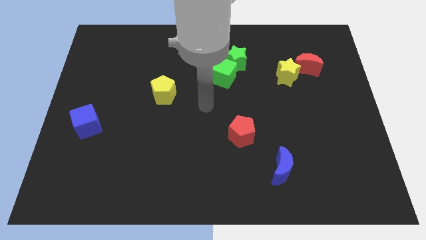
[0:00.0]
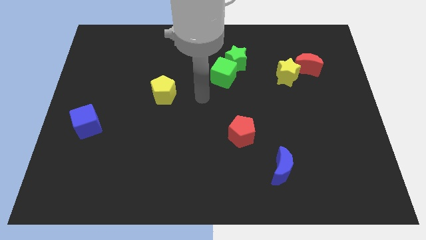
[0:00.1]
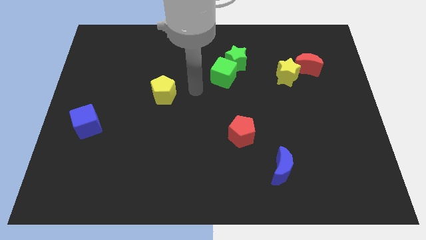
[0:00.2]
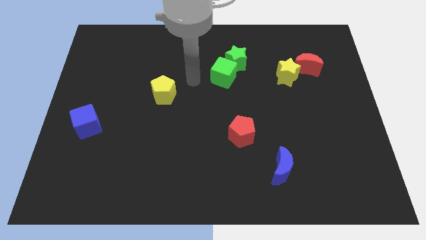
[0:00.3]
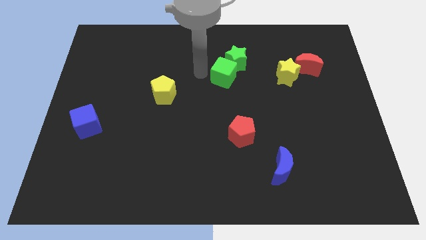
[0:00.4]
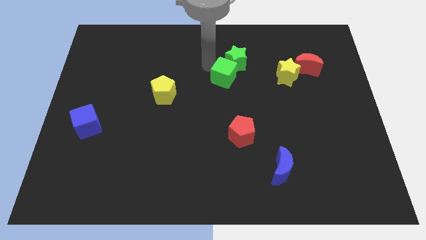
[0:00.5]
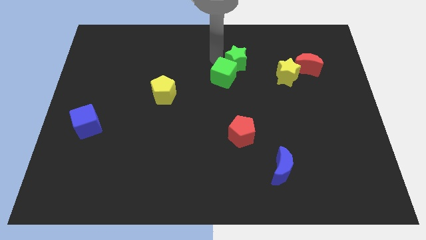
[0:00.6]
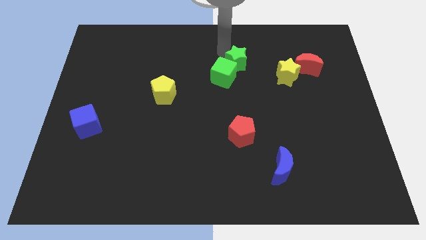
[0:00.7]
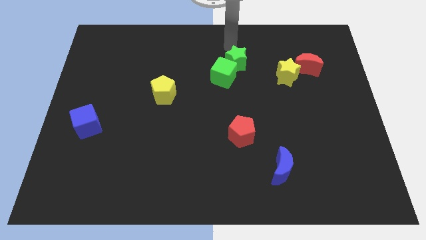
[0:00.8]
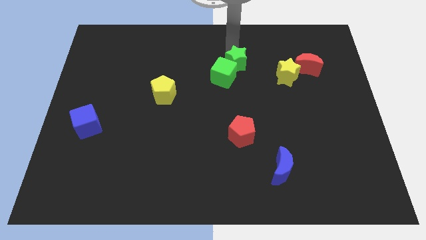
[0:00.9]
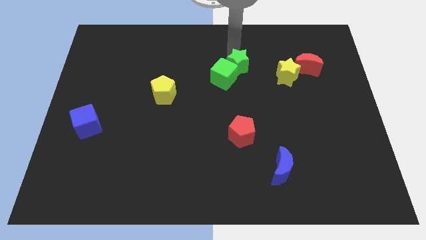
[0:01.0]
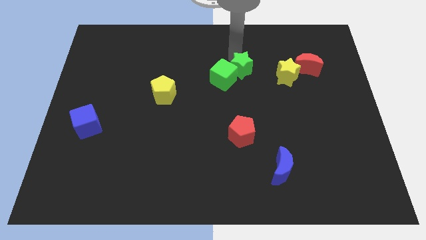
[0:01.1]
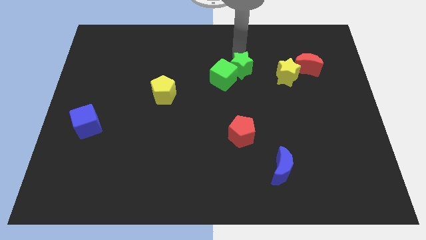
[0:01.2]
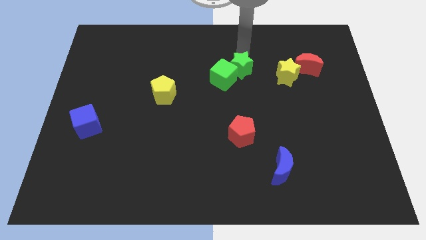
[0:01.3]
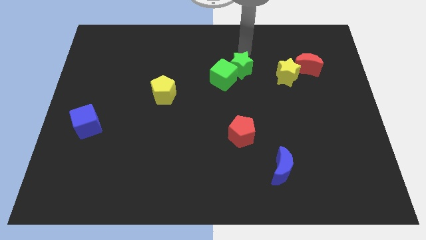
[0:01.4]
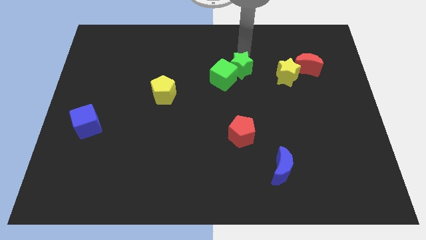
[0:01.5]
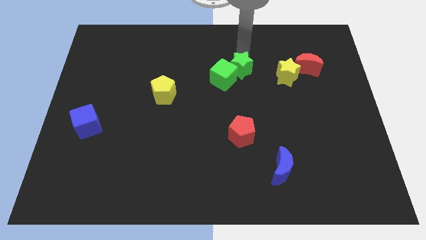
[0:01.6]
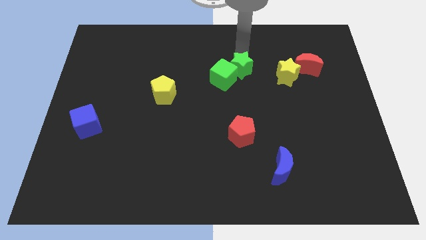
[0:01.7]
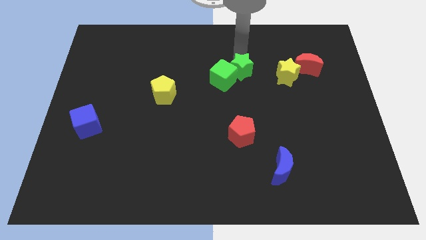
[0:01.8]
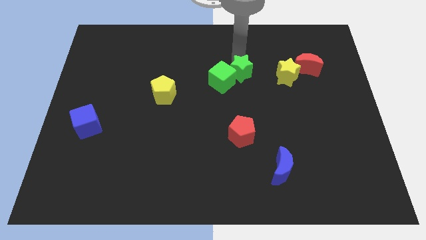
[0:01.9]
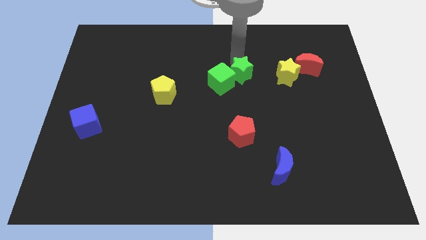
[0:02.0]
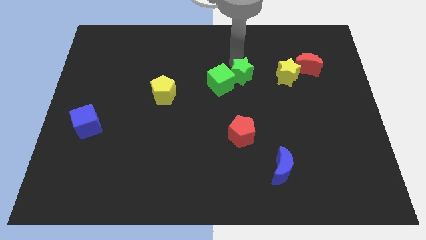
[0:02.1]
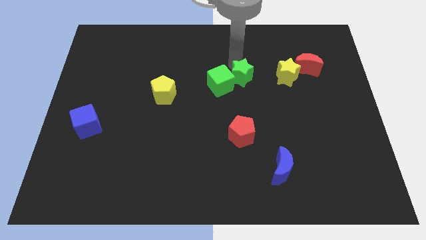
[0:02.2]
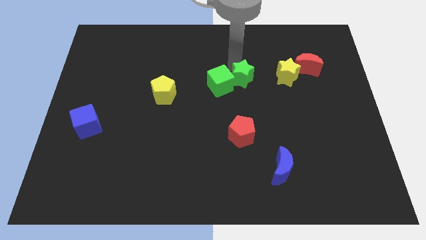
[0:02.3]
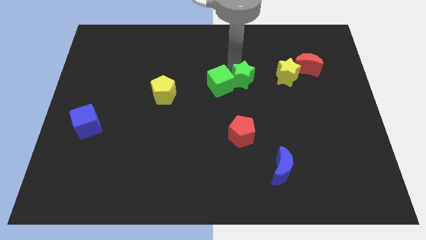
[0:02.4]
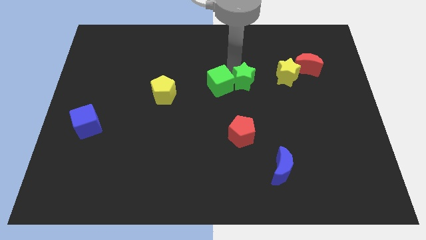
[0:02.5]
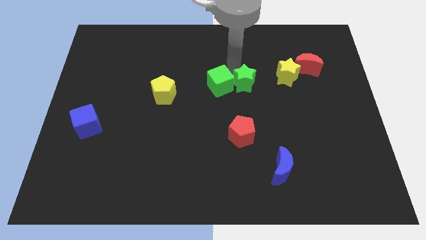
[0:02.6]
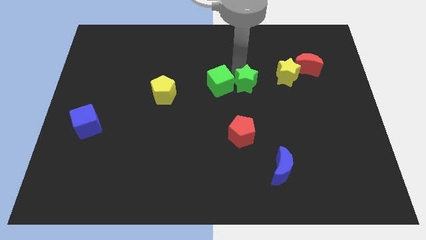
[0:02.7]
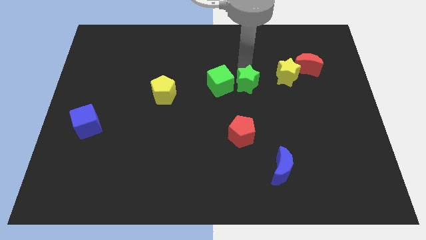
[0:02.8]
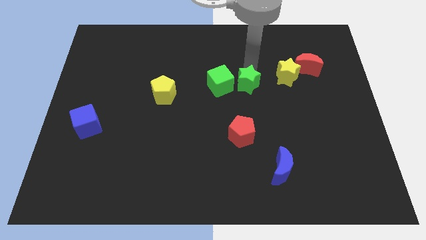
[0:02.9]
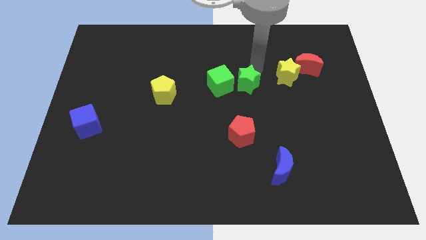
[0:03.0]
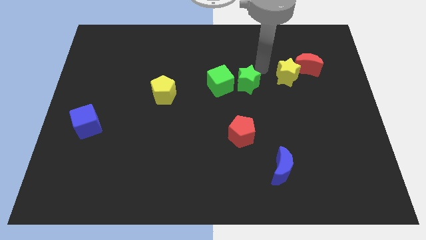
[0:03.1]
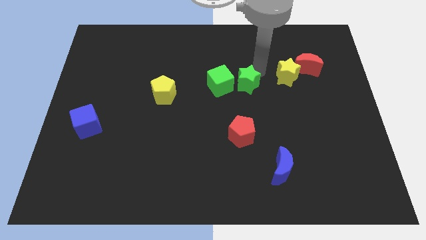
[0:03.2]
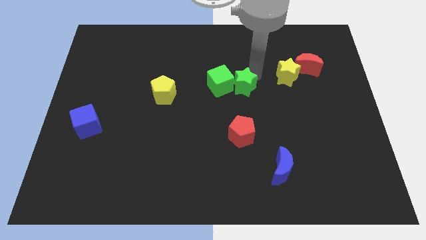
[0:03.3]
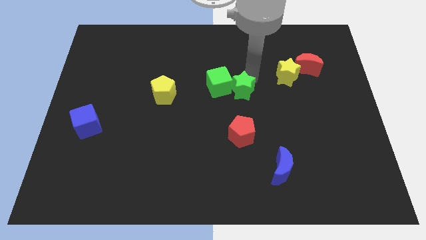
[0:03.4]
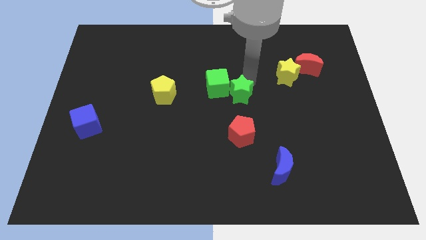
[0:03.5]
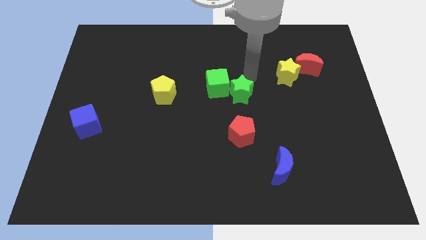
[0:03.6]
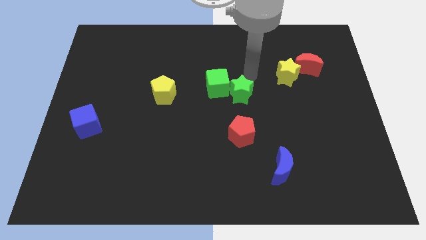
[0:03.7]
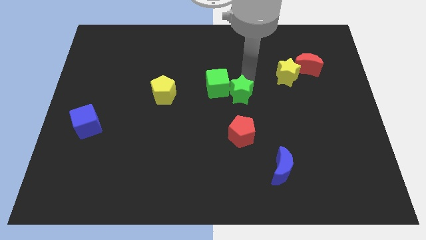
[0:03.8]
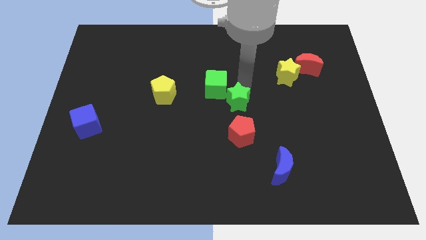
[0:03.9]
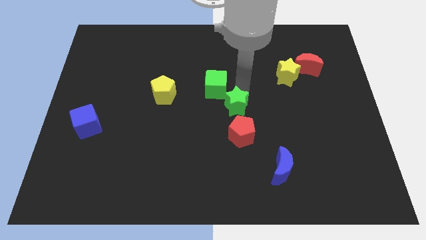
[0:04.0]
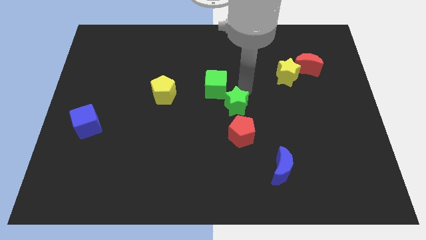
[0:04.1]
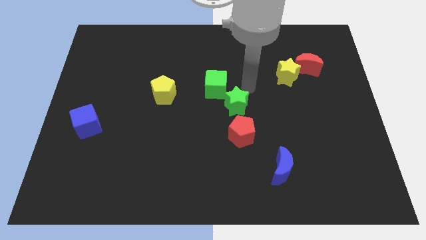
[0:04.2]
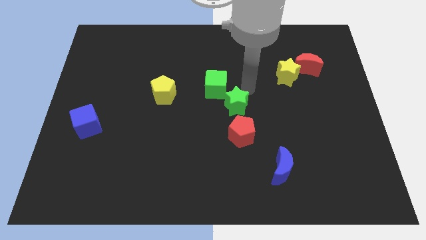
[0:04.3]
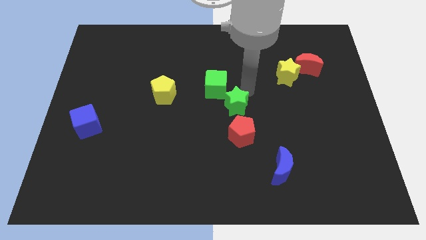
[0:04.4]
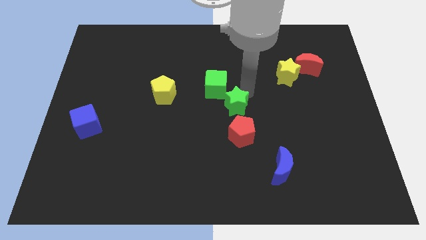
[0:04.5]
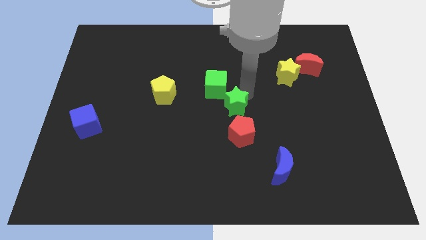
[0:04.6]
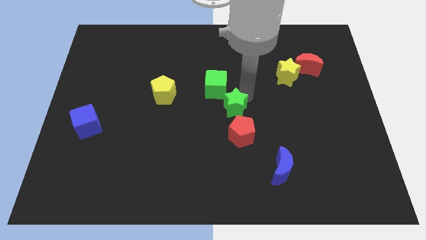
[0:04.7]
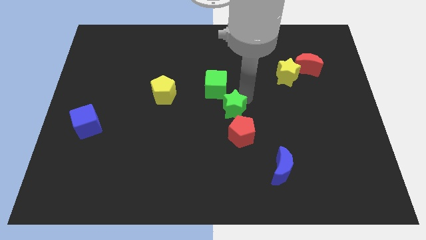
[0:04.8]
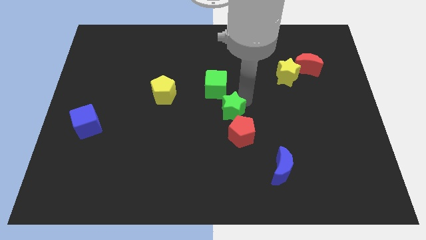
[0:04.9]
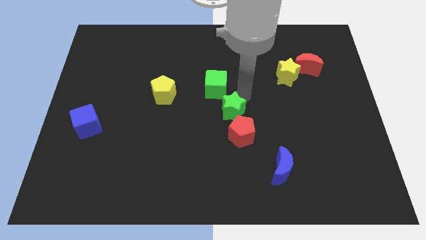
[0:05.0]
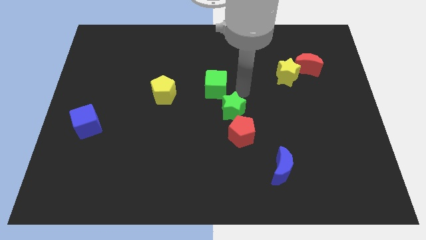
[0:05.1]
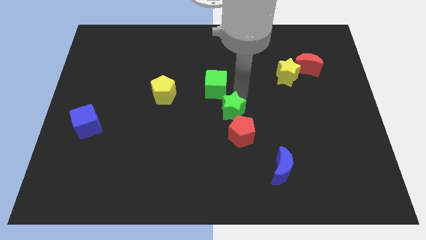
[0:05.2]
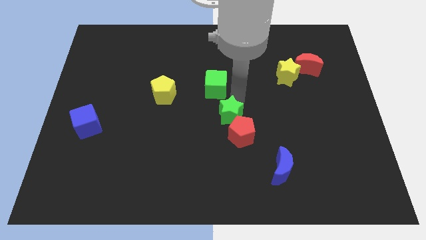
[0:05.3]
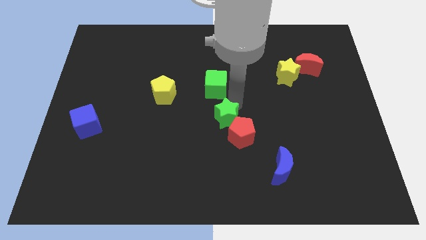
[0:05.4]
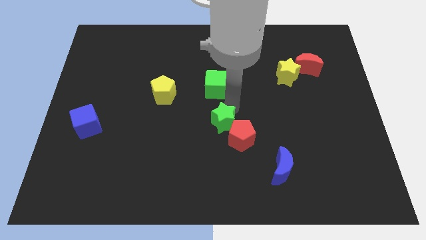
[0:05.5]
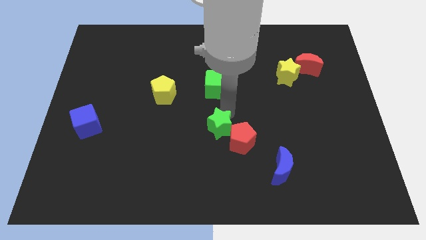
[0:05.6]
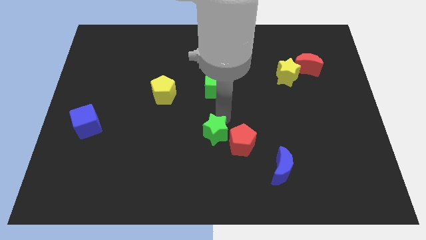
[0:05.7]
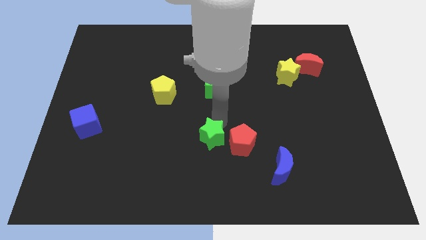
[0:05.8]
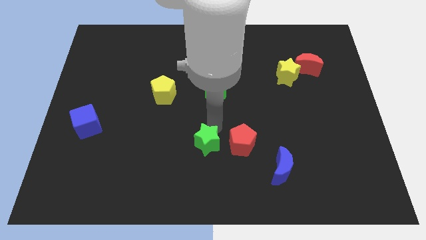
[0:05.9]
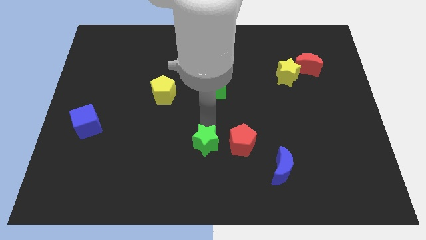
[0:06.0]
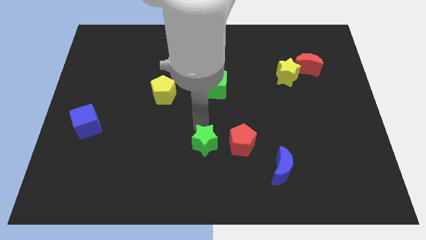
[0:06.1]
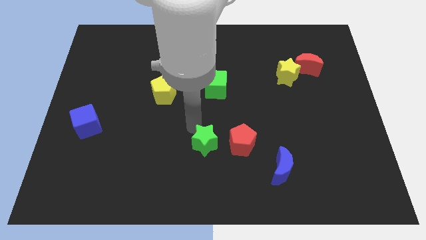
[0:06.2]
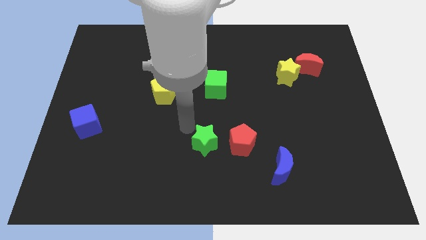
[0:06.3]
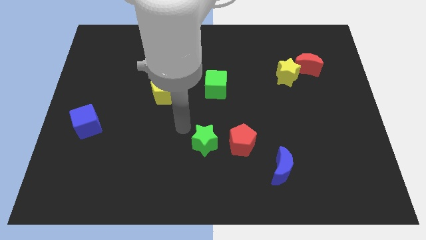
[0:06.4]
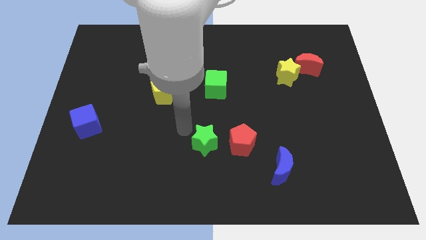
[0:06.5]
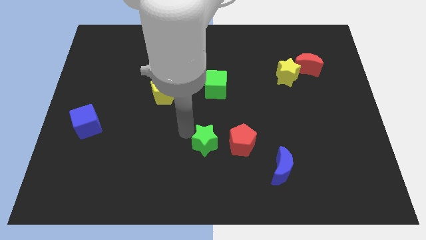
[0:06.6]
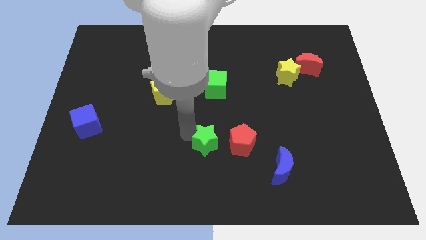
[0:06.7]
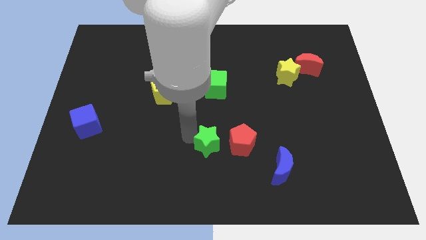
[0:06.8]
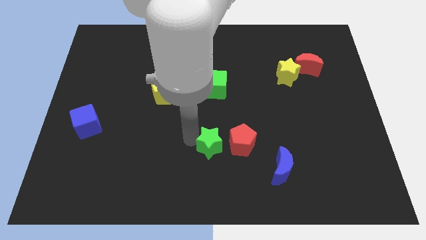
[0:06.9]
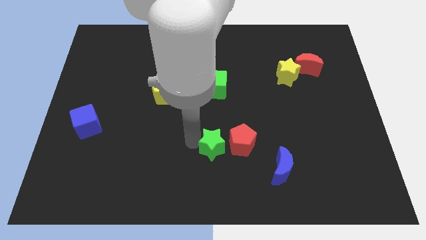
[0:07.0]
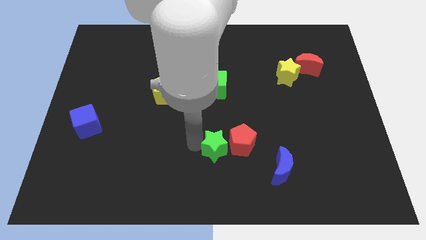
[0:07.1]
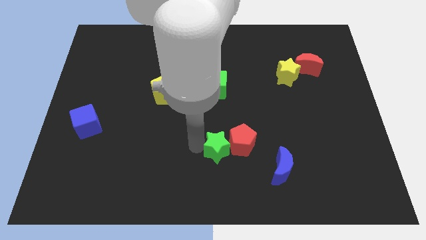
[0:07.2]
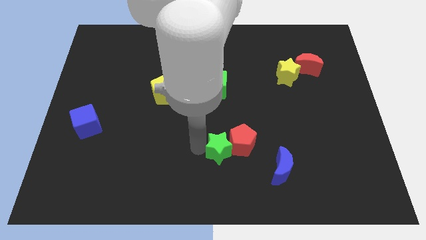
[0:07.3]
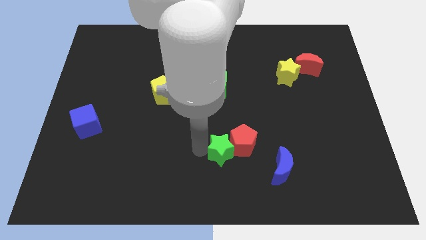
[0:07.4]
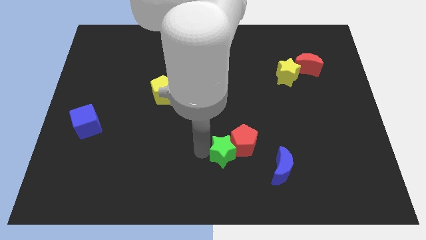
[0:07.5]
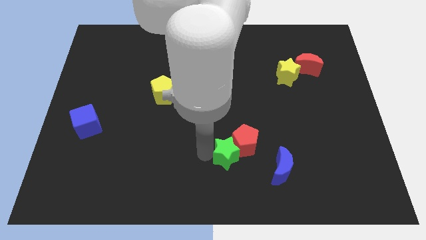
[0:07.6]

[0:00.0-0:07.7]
move the green star to the bottom side of the red pentagon

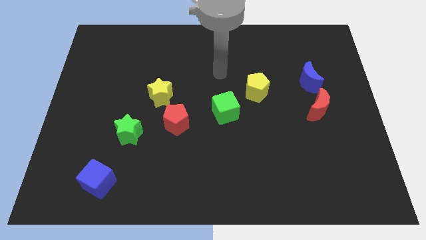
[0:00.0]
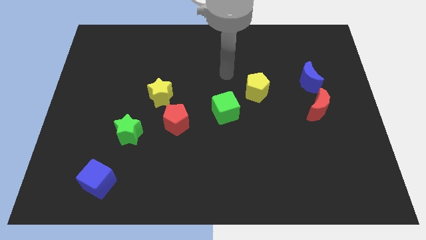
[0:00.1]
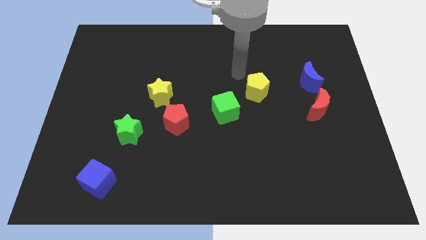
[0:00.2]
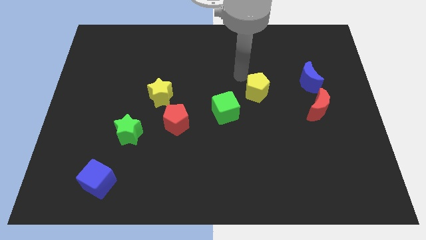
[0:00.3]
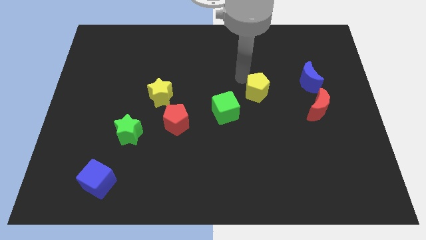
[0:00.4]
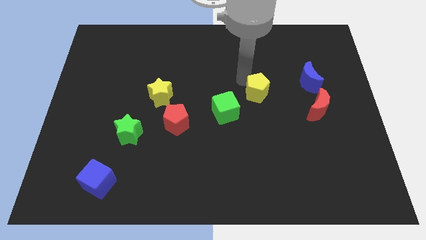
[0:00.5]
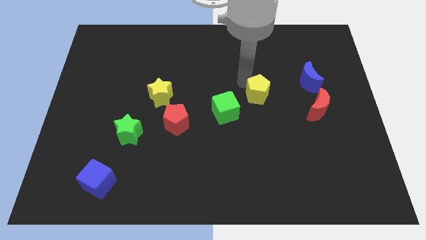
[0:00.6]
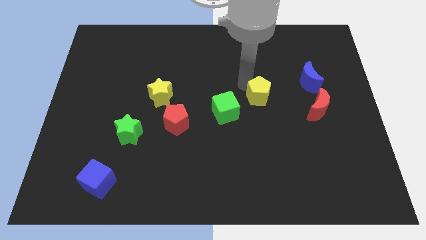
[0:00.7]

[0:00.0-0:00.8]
slide the yellow pentagon to the left of the red moon
